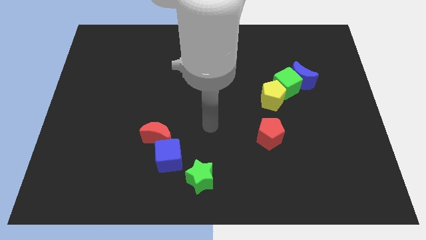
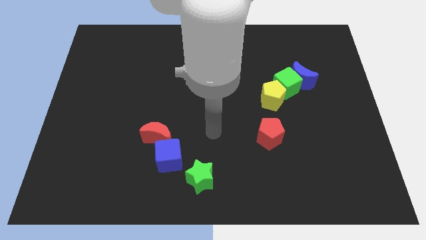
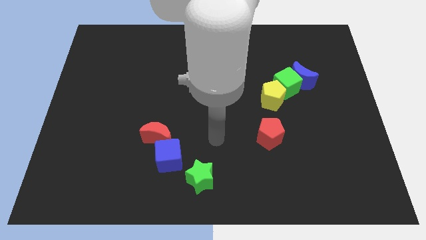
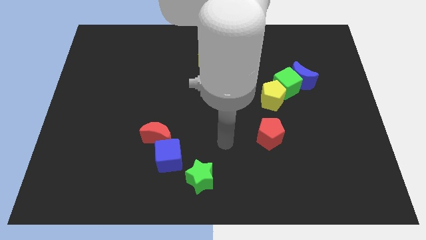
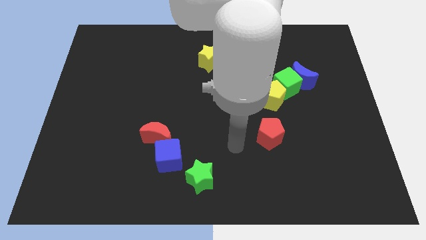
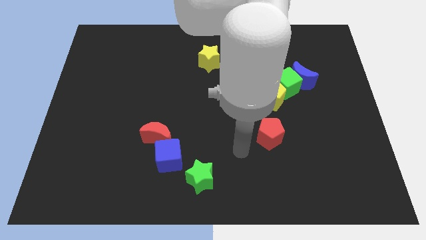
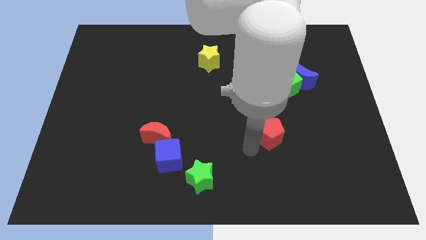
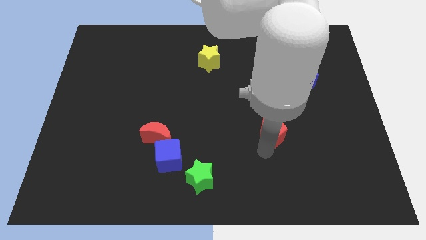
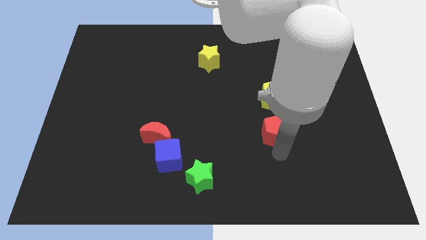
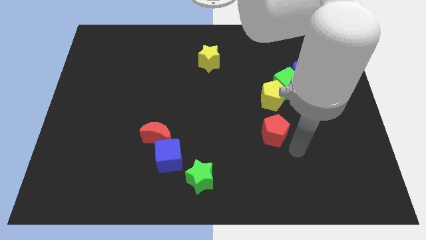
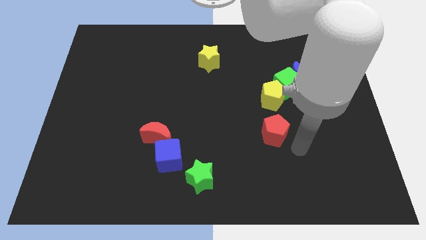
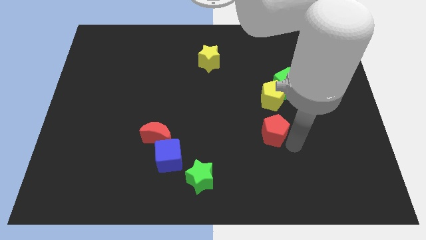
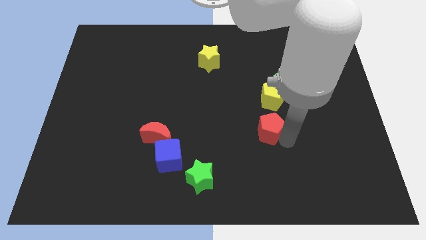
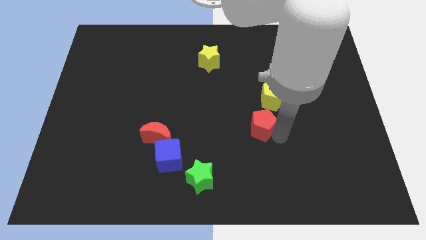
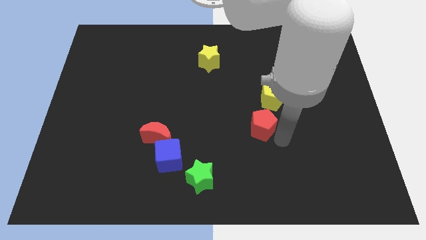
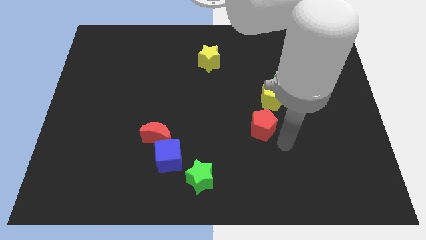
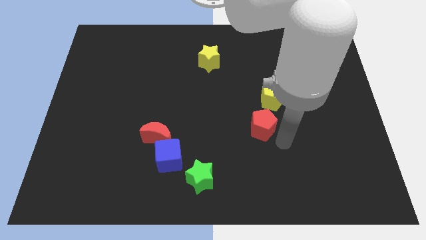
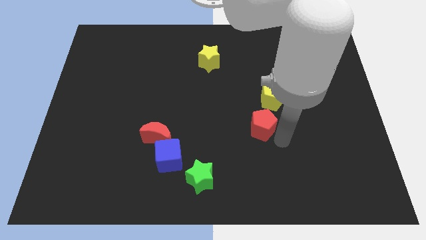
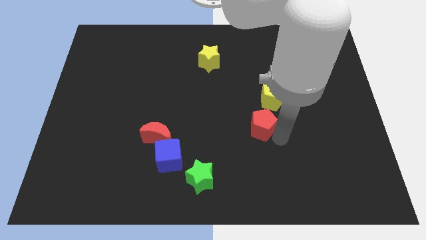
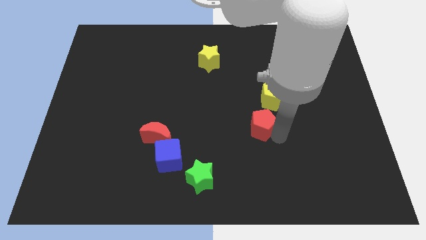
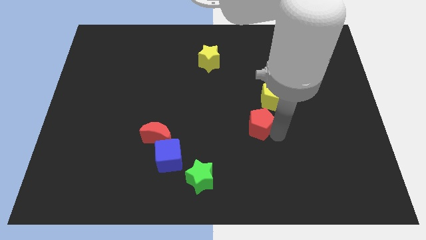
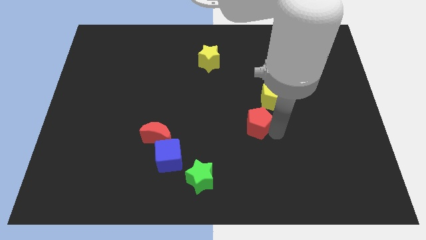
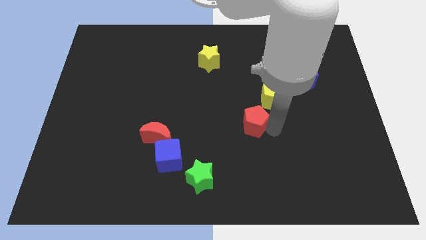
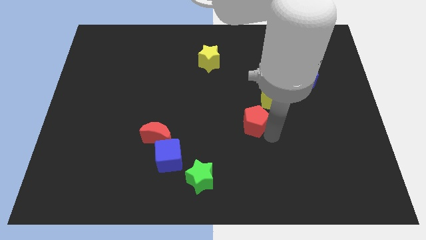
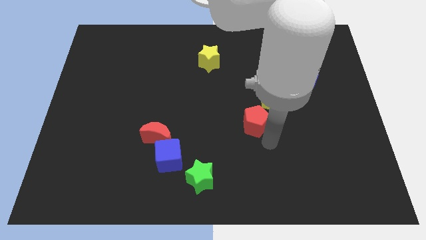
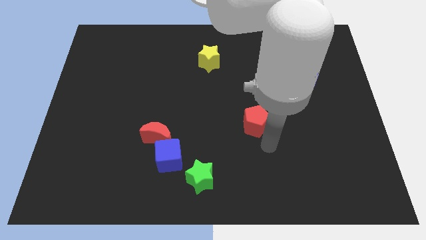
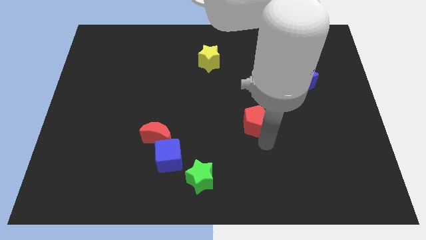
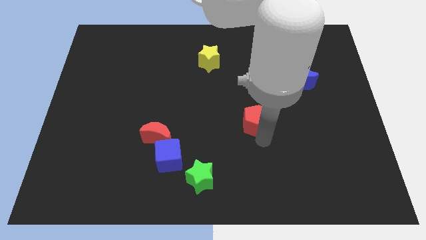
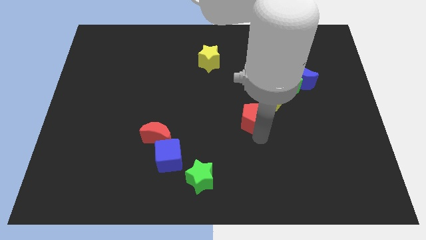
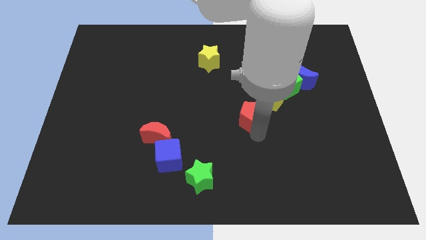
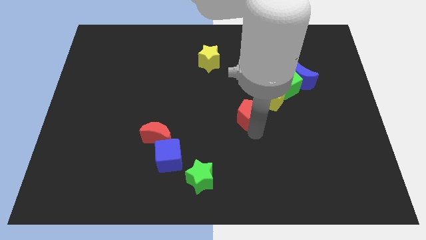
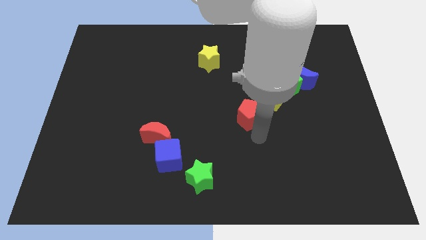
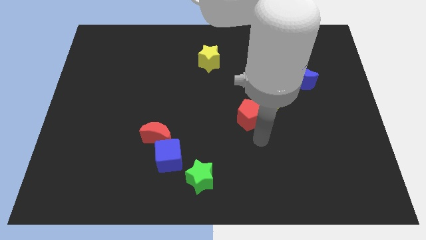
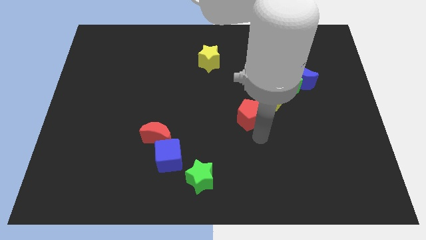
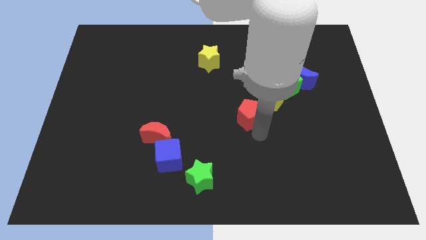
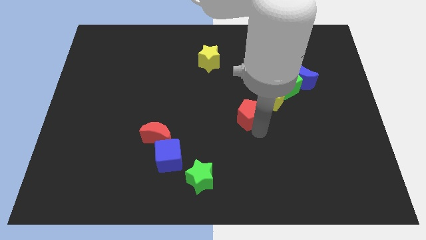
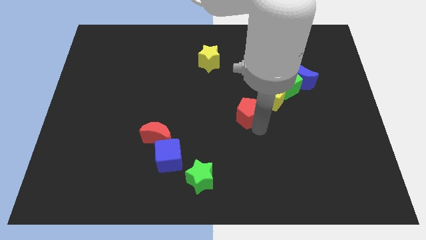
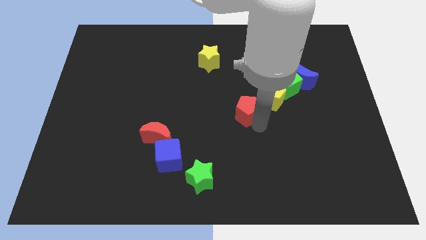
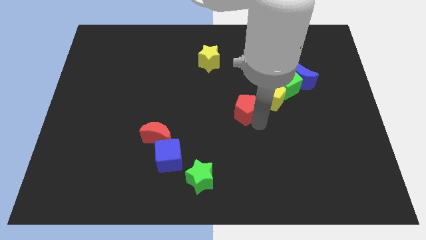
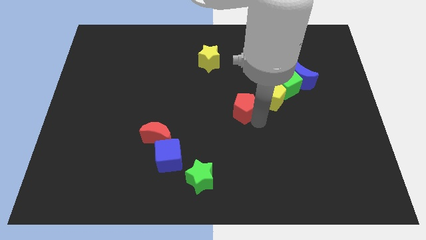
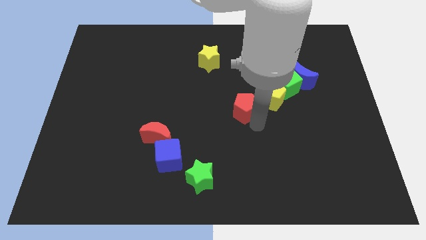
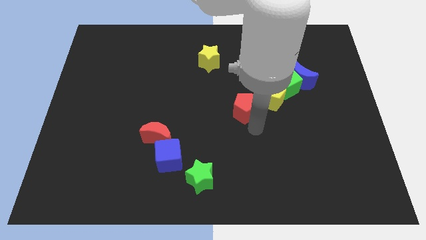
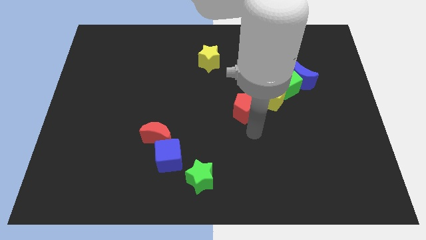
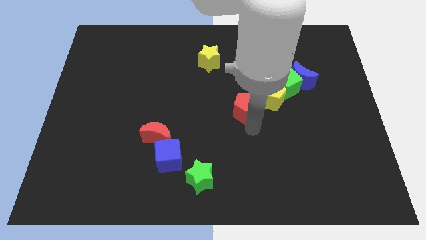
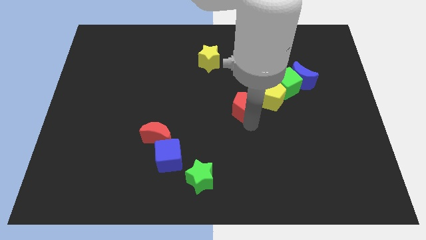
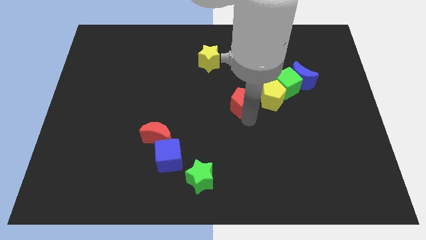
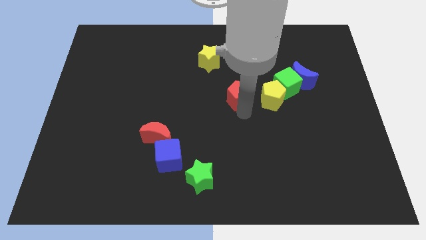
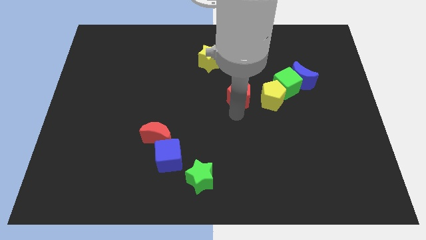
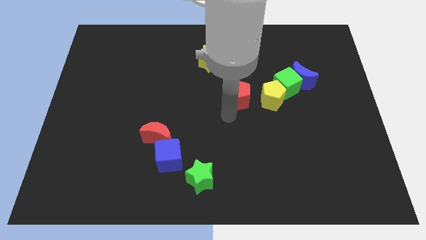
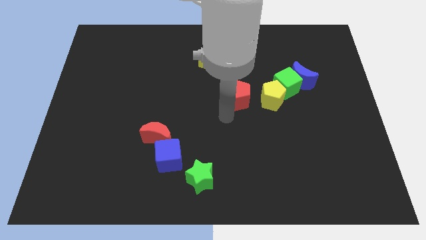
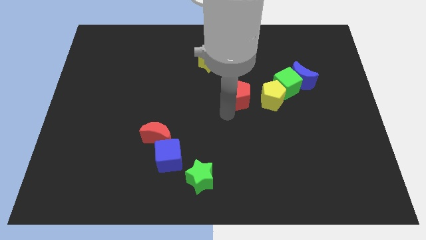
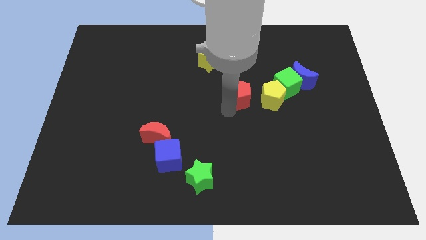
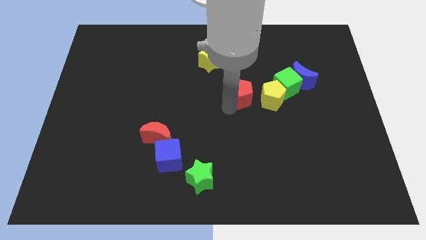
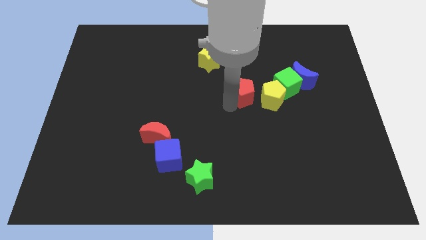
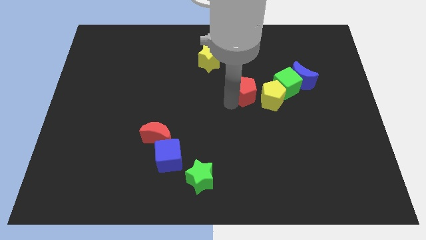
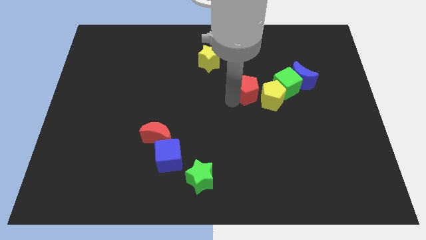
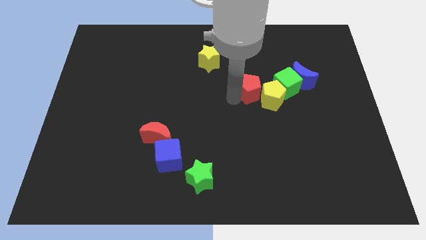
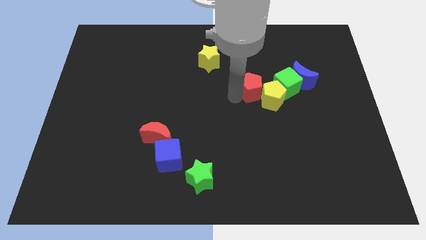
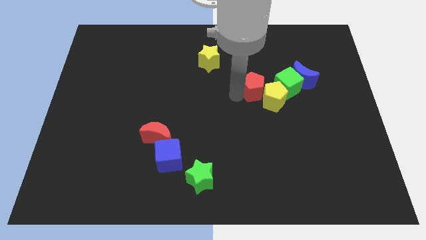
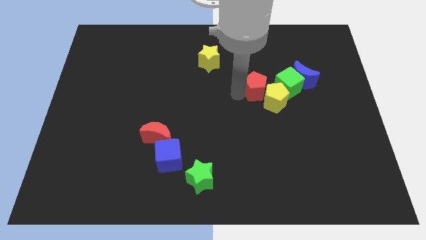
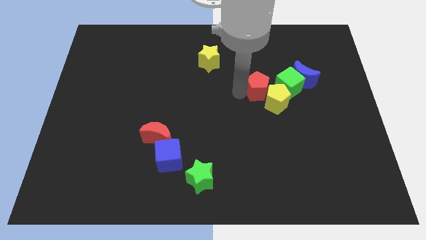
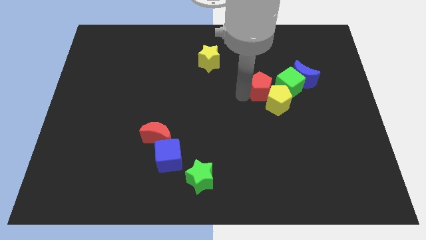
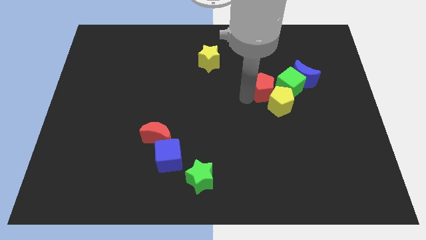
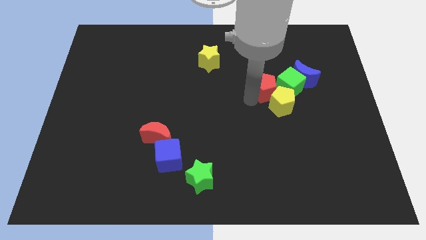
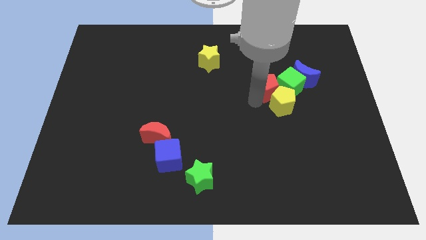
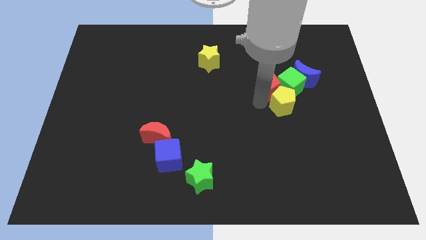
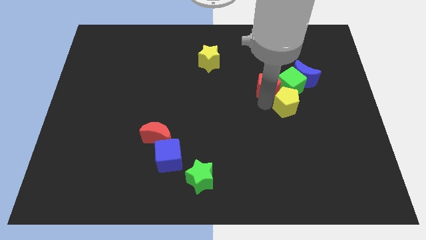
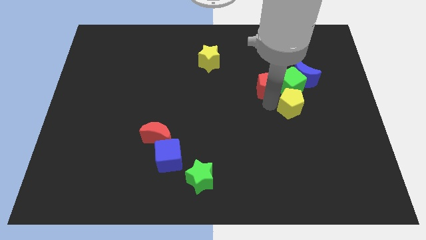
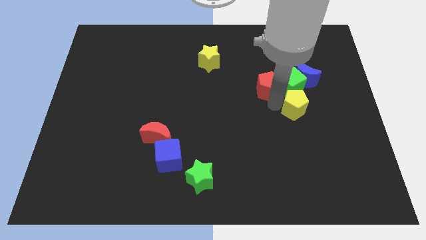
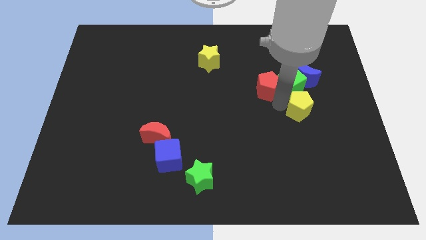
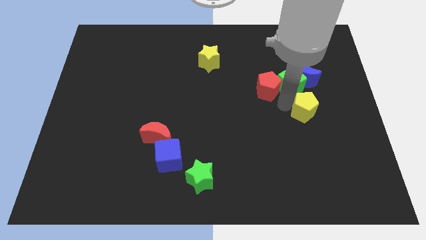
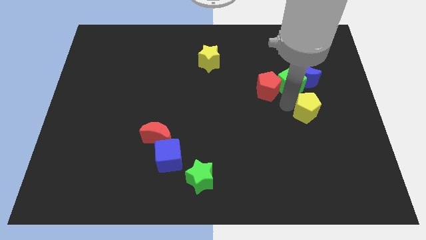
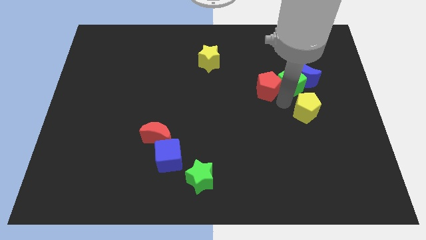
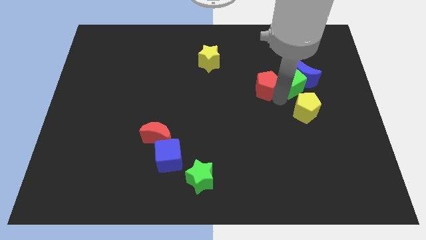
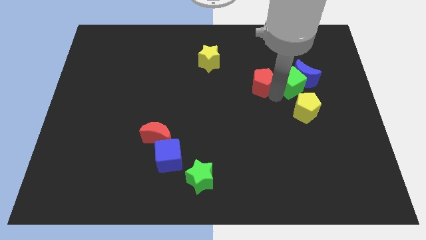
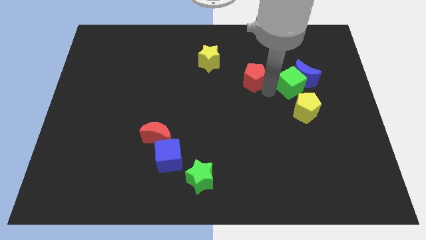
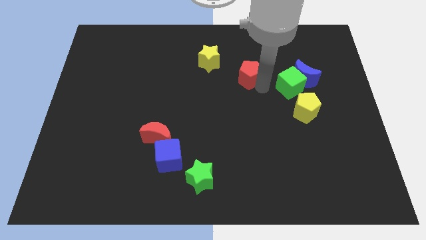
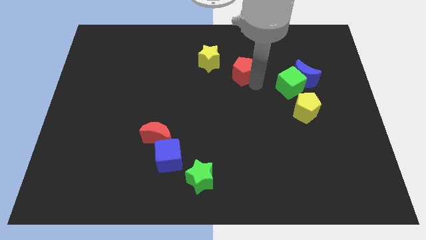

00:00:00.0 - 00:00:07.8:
slide the red pentagon right of the yellow star

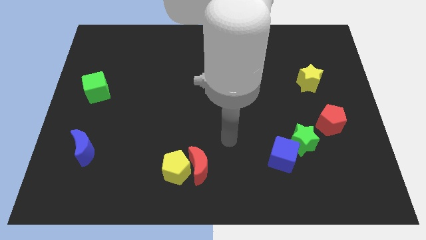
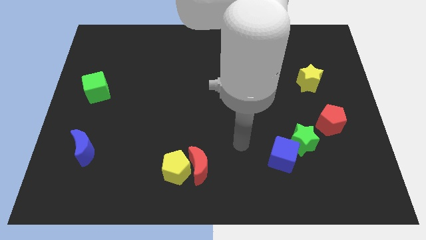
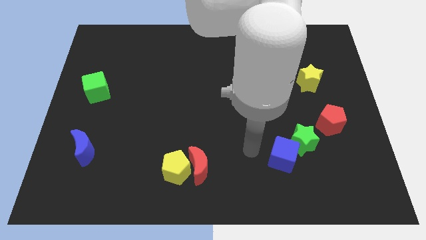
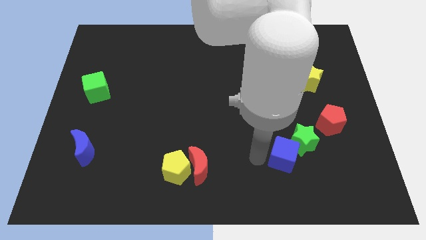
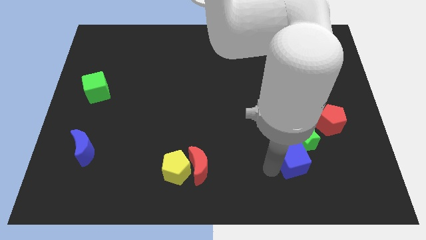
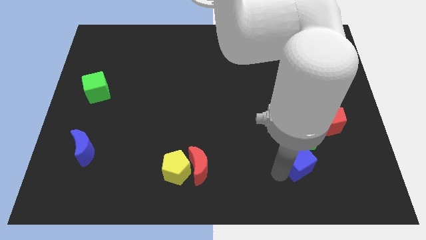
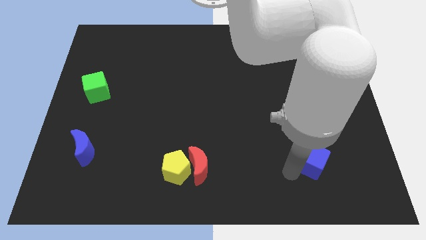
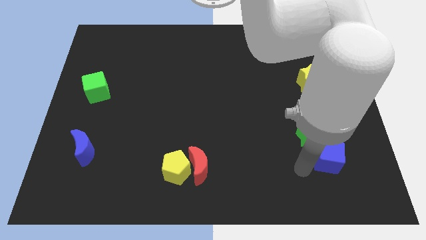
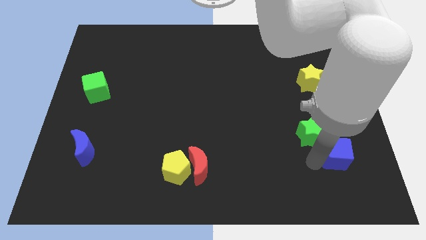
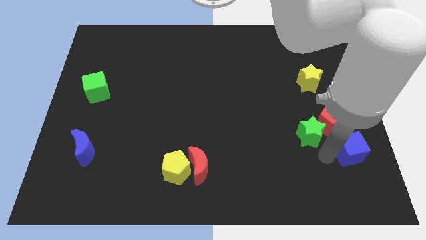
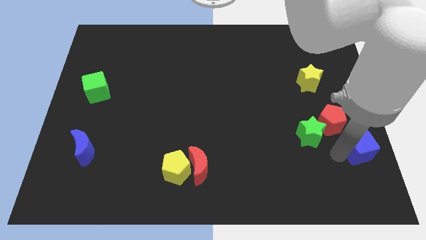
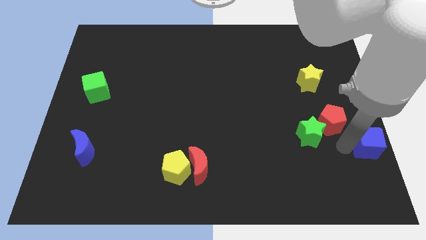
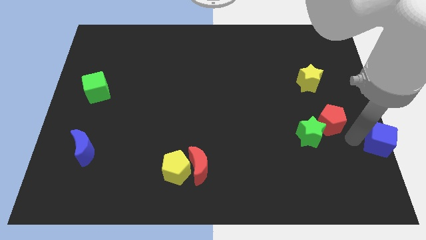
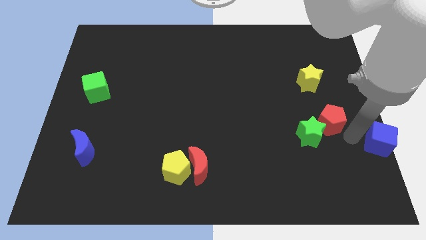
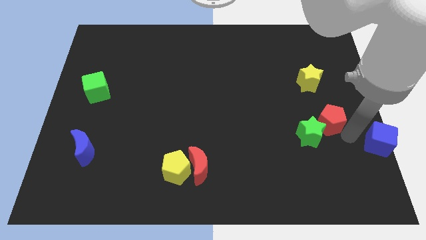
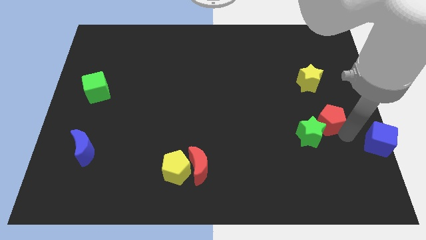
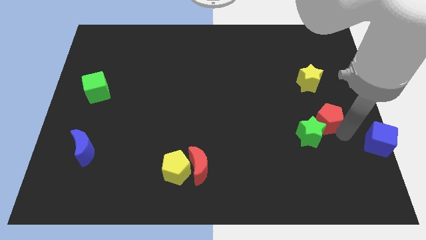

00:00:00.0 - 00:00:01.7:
push the red pentagon to the top of the green star
